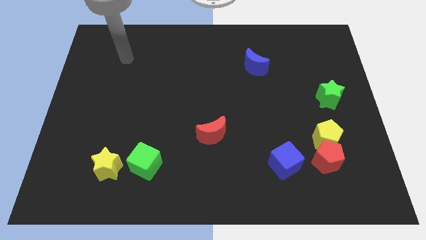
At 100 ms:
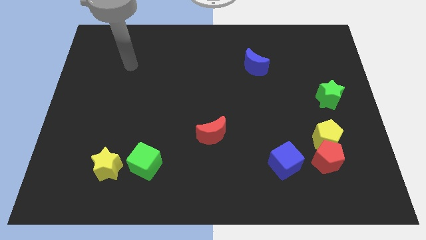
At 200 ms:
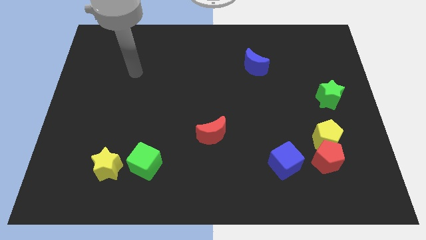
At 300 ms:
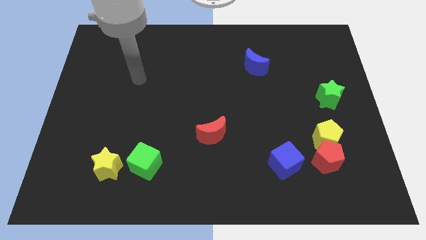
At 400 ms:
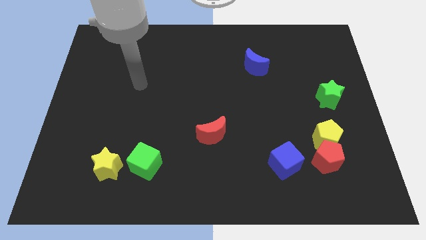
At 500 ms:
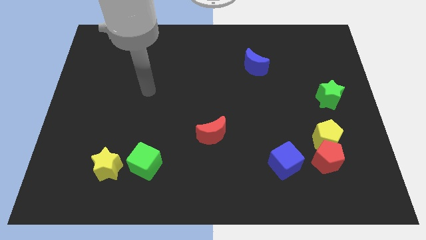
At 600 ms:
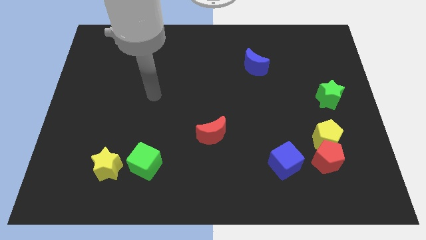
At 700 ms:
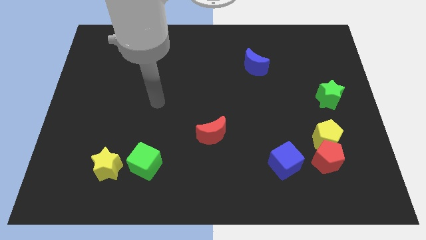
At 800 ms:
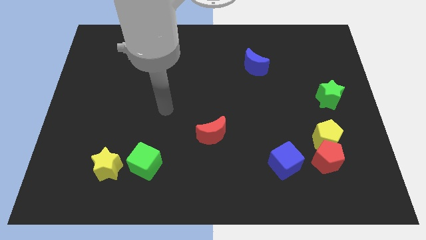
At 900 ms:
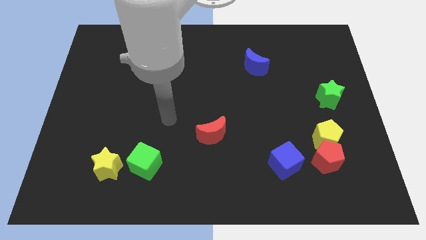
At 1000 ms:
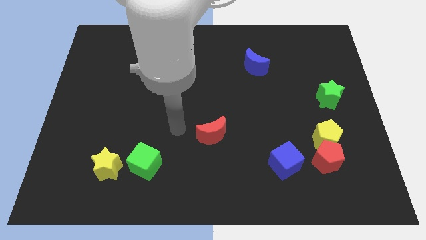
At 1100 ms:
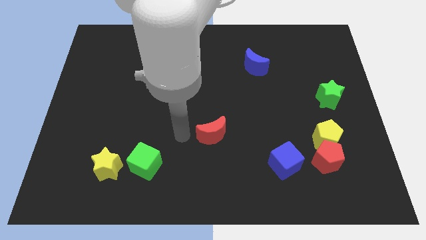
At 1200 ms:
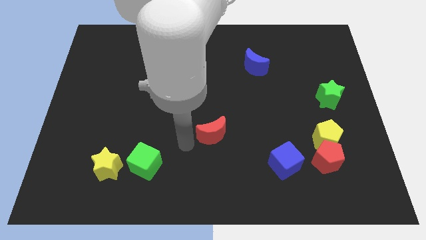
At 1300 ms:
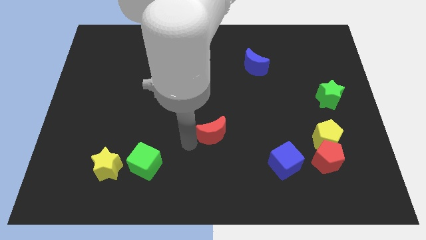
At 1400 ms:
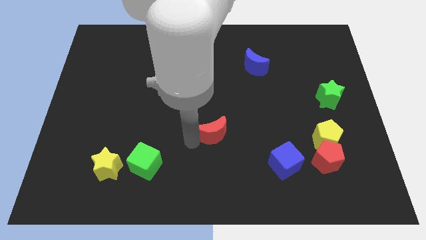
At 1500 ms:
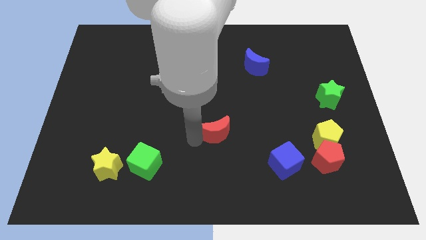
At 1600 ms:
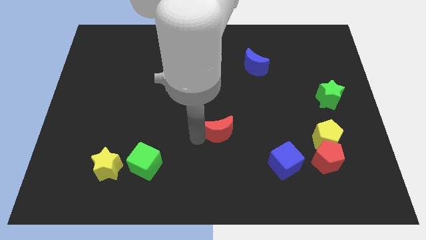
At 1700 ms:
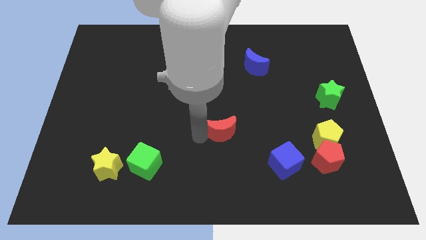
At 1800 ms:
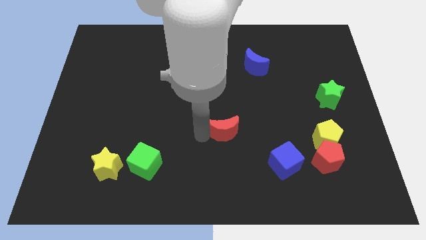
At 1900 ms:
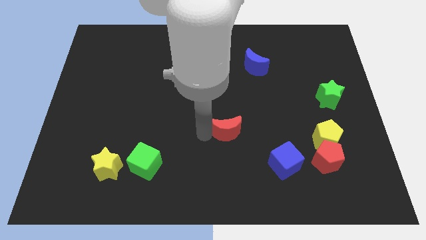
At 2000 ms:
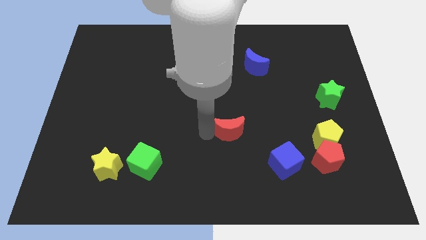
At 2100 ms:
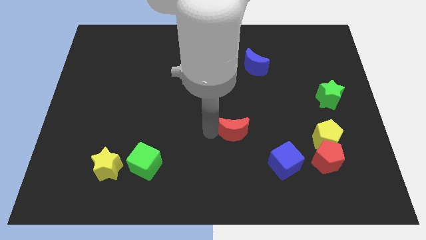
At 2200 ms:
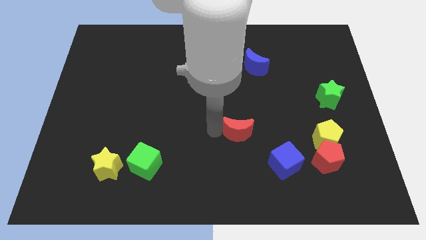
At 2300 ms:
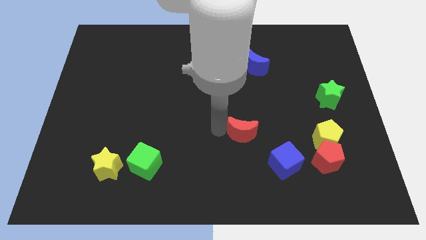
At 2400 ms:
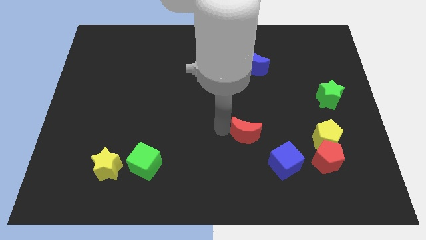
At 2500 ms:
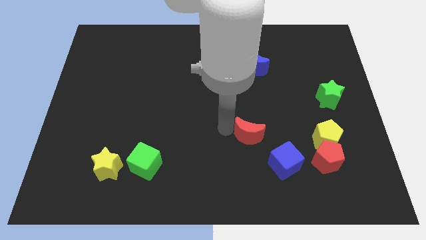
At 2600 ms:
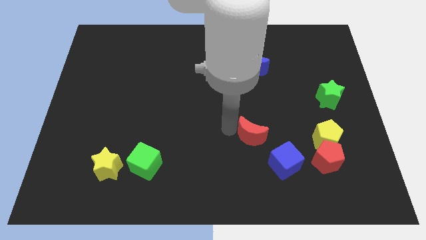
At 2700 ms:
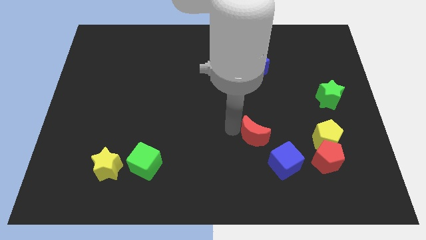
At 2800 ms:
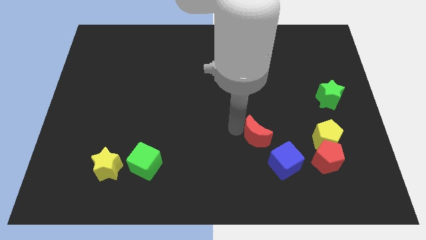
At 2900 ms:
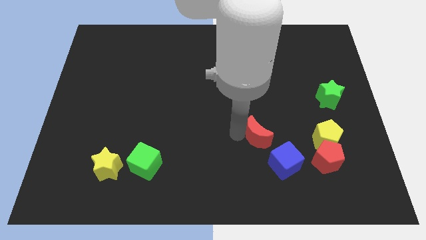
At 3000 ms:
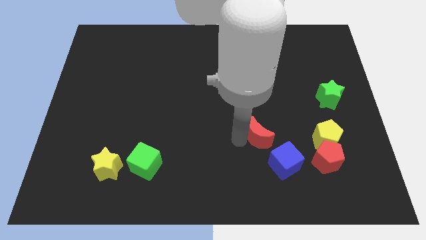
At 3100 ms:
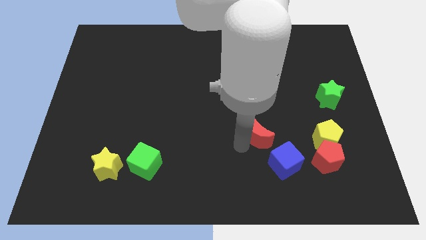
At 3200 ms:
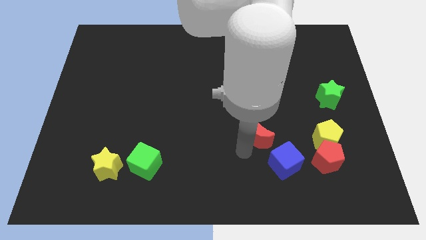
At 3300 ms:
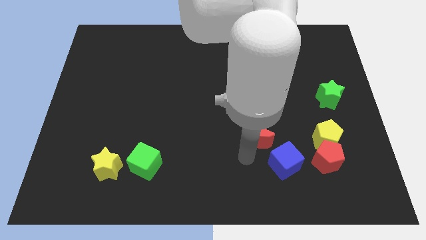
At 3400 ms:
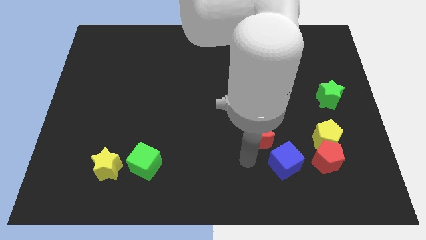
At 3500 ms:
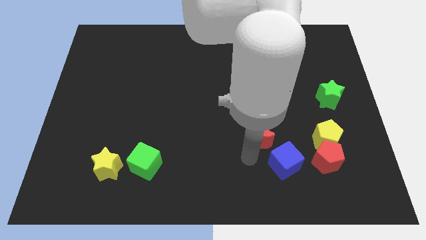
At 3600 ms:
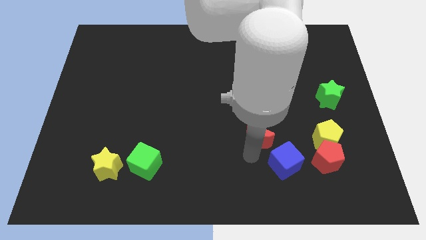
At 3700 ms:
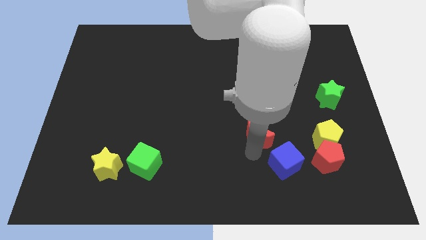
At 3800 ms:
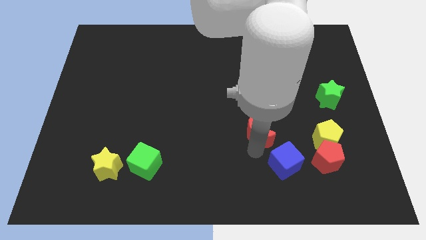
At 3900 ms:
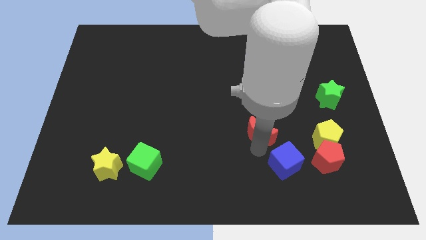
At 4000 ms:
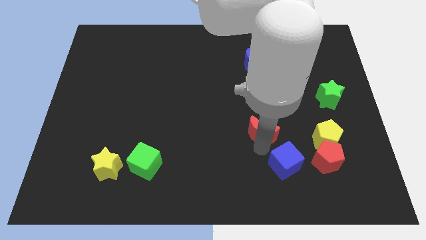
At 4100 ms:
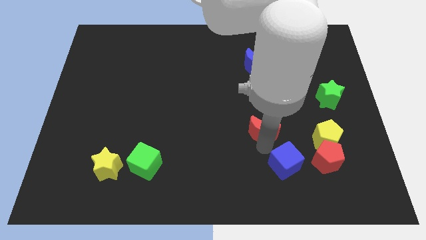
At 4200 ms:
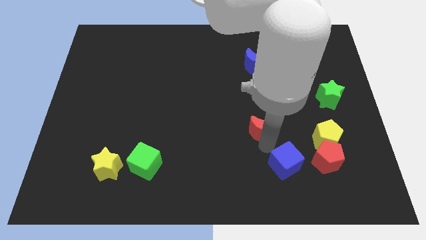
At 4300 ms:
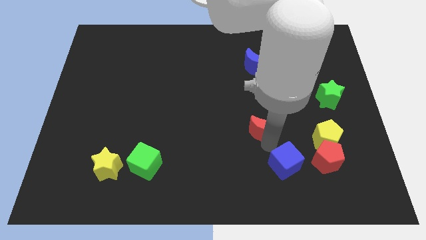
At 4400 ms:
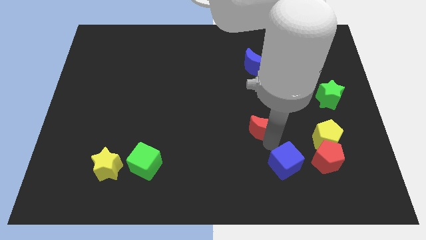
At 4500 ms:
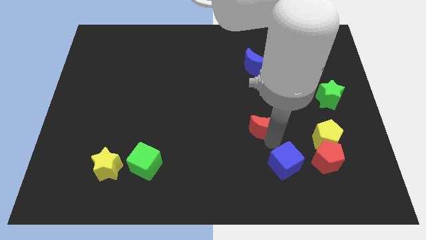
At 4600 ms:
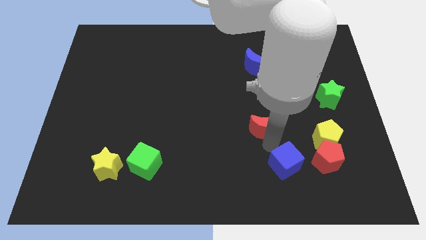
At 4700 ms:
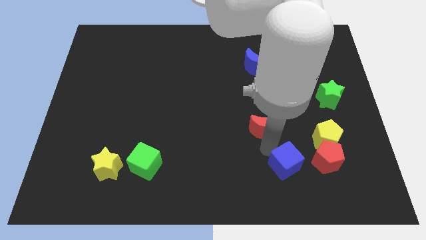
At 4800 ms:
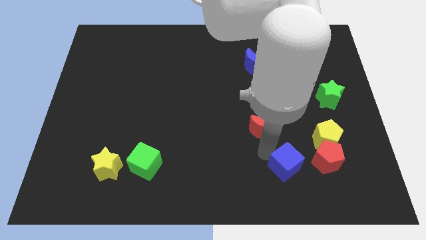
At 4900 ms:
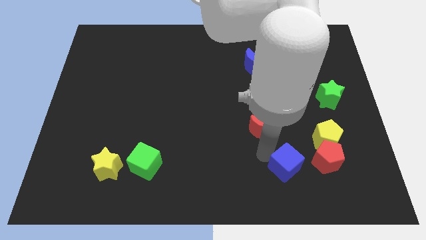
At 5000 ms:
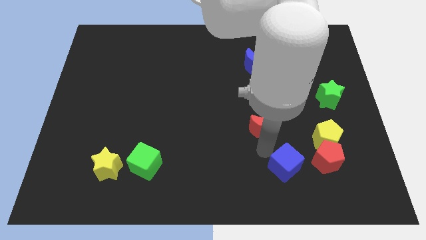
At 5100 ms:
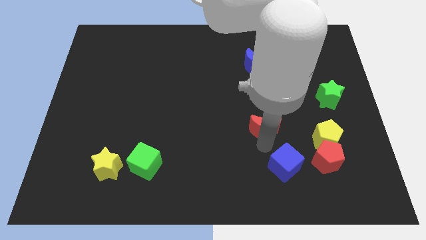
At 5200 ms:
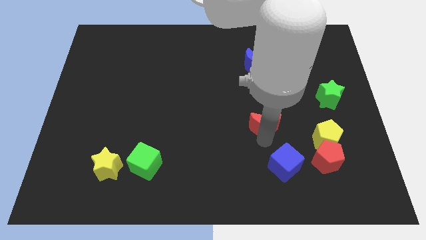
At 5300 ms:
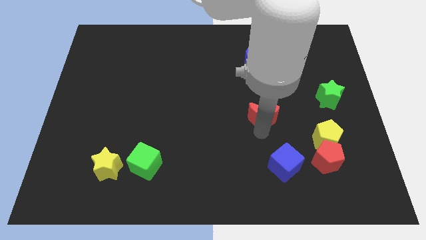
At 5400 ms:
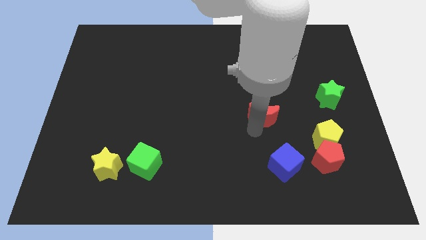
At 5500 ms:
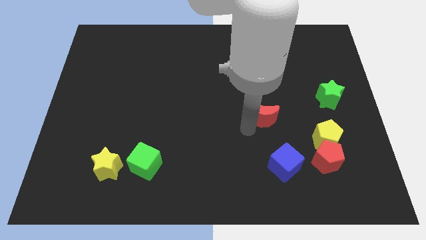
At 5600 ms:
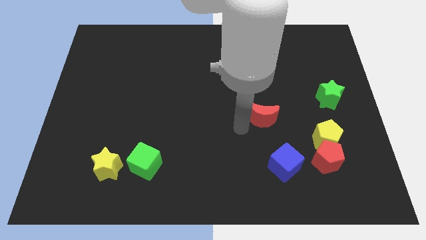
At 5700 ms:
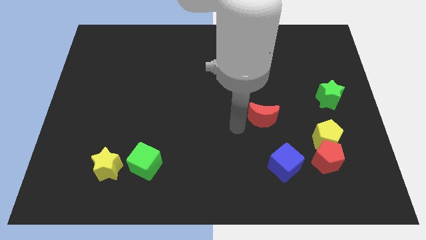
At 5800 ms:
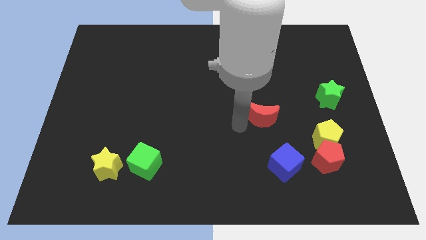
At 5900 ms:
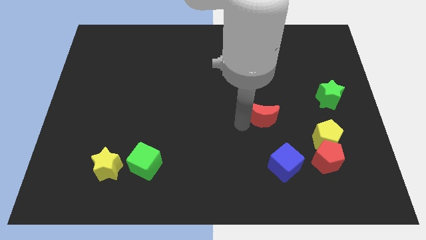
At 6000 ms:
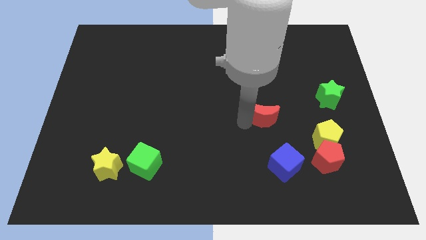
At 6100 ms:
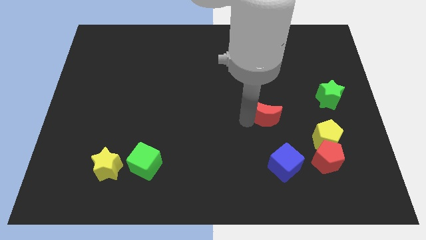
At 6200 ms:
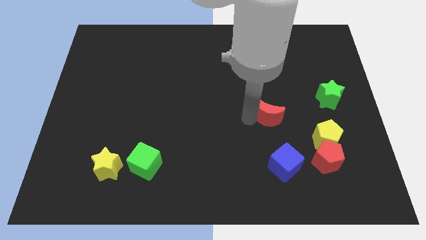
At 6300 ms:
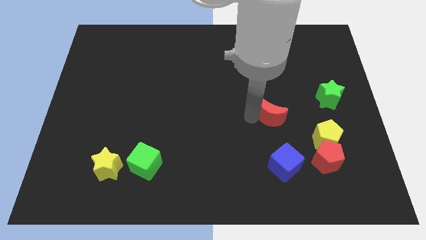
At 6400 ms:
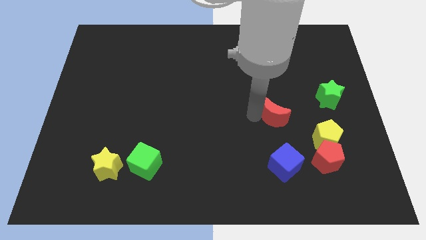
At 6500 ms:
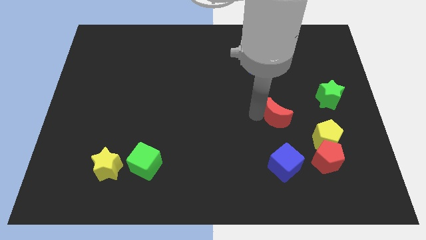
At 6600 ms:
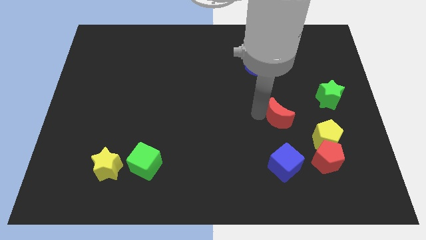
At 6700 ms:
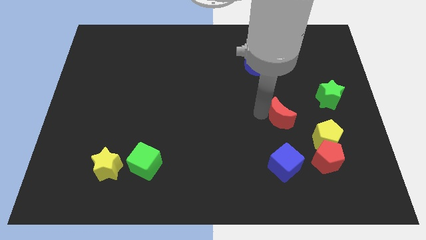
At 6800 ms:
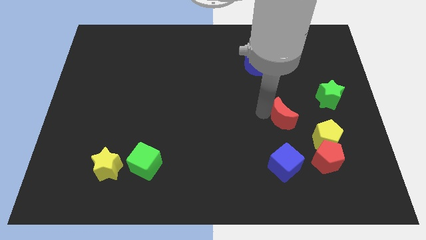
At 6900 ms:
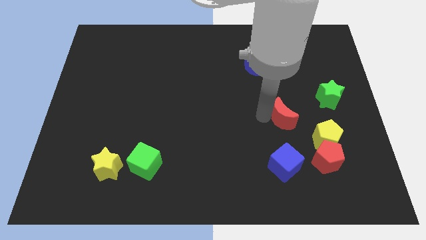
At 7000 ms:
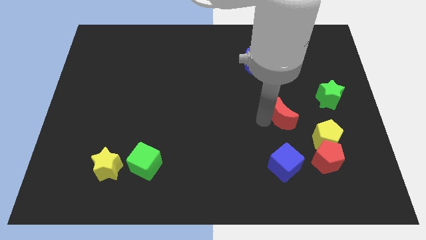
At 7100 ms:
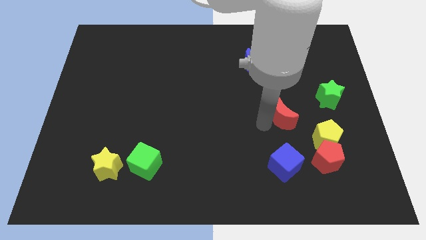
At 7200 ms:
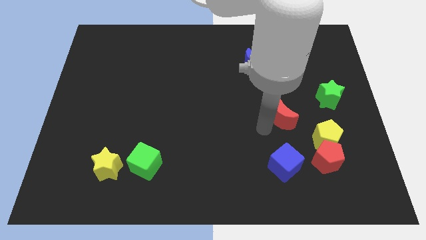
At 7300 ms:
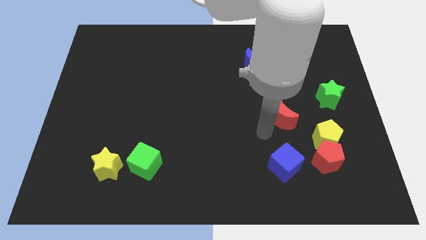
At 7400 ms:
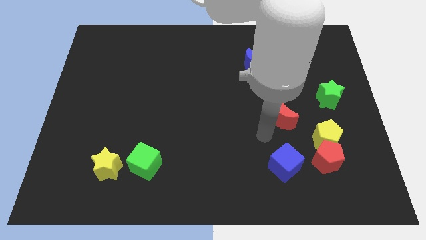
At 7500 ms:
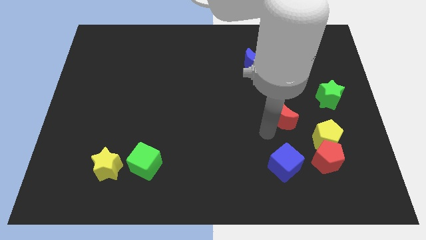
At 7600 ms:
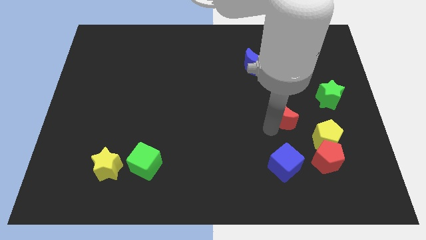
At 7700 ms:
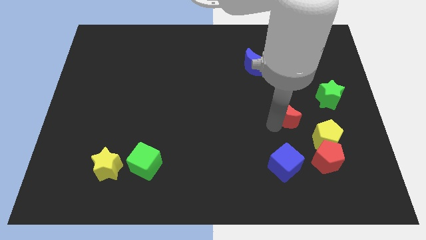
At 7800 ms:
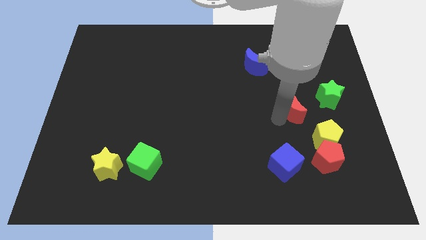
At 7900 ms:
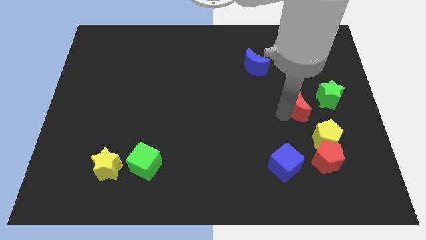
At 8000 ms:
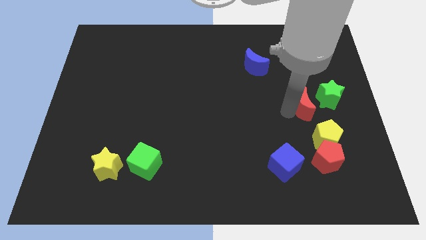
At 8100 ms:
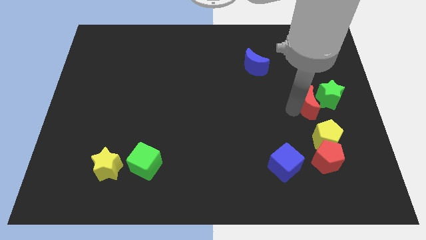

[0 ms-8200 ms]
move the red moon to the green star
